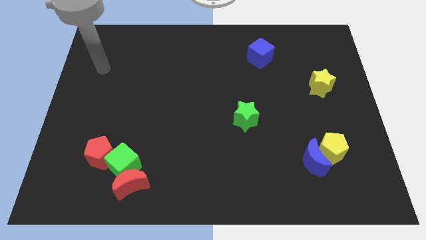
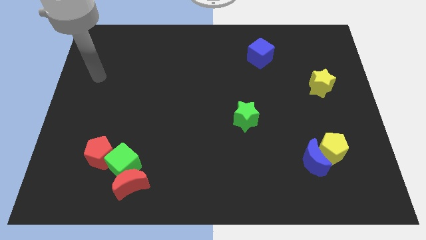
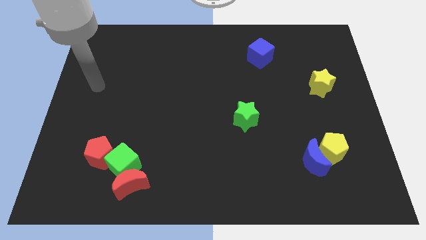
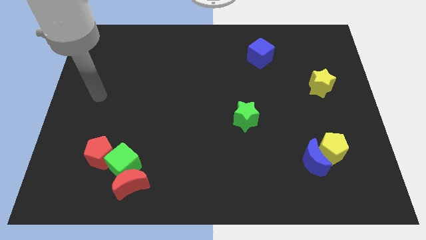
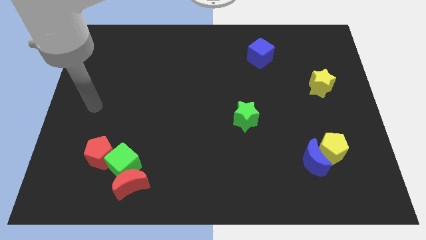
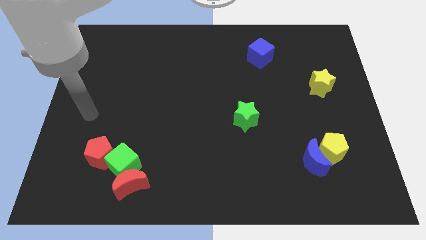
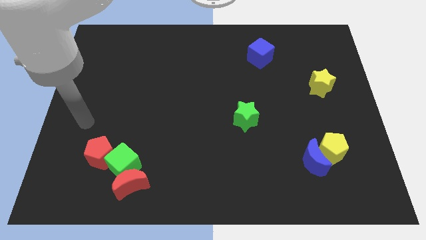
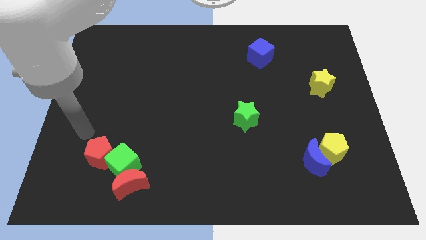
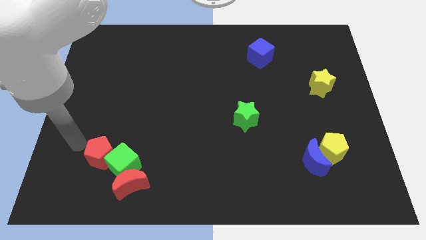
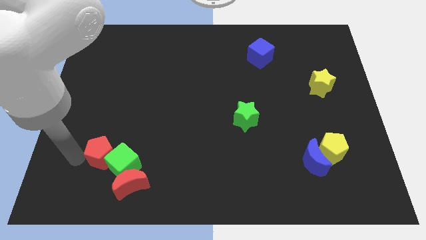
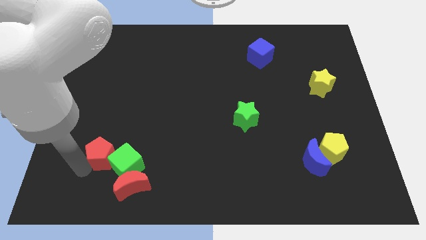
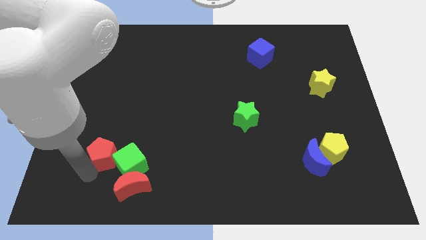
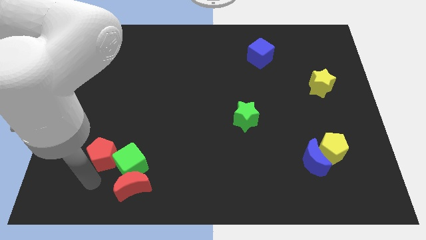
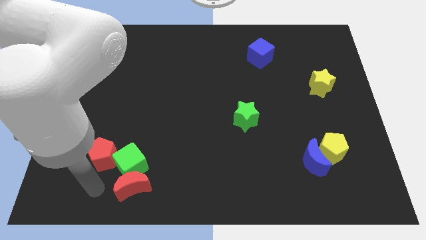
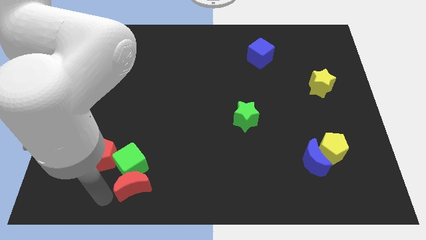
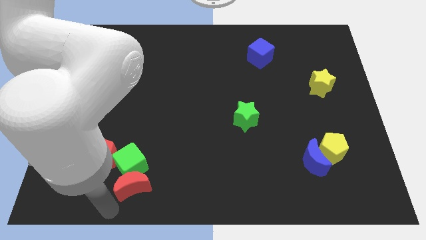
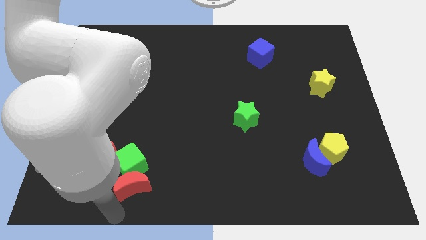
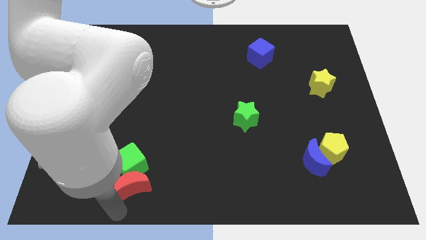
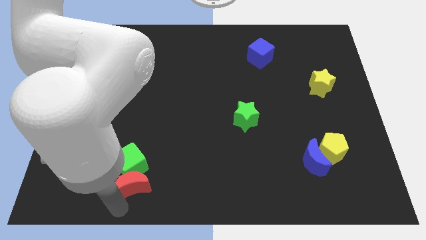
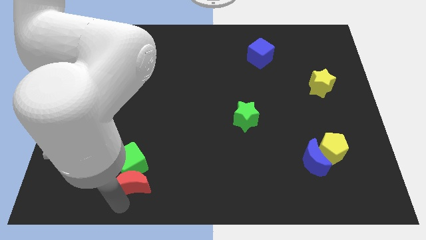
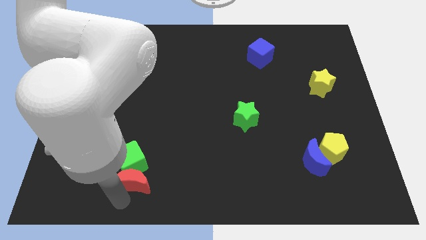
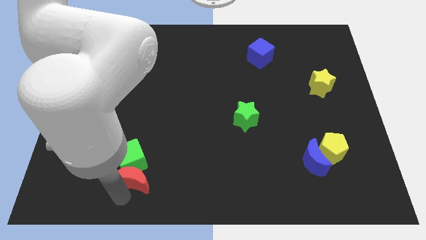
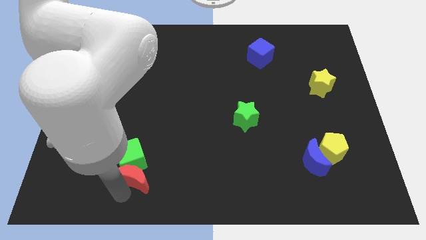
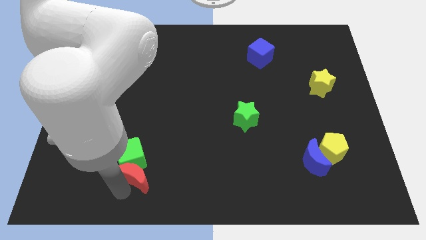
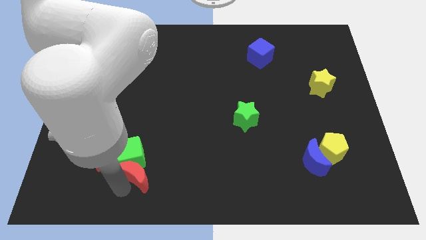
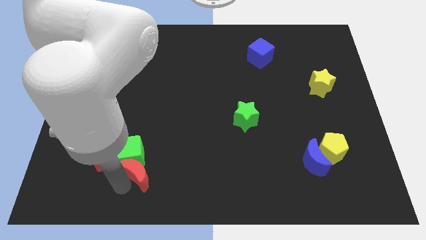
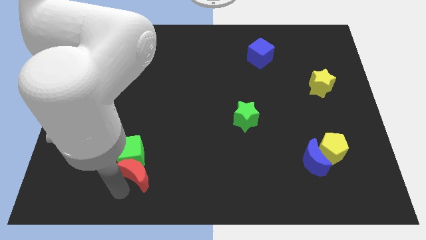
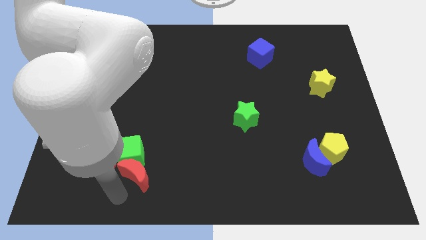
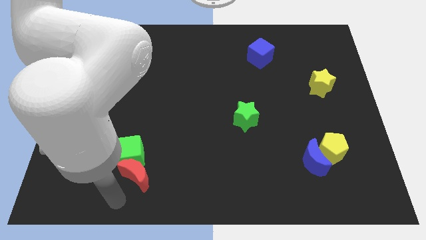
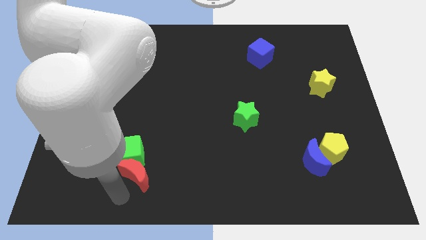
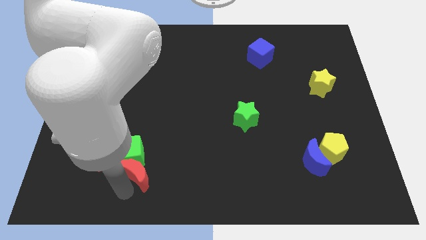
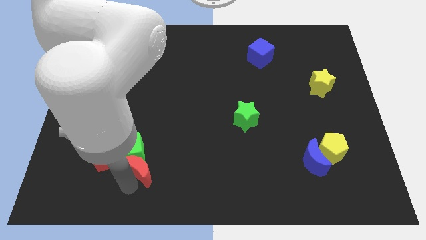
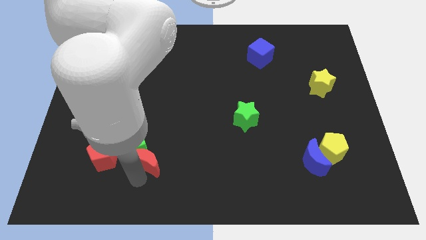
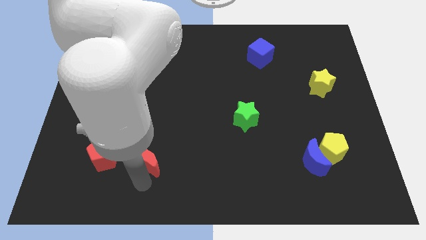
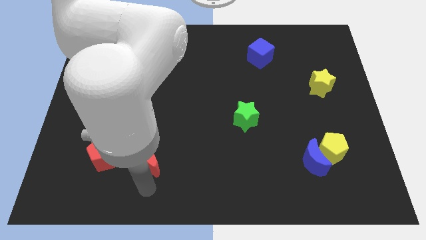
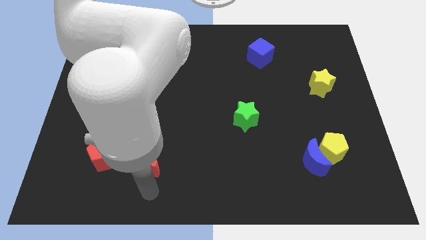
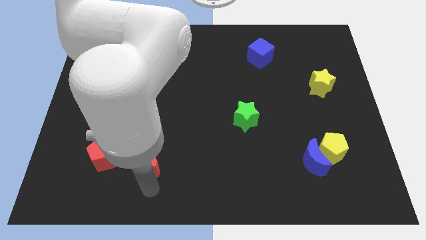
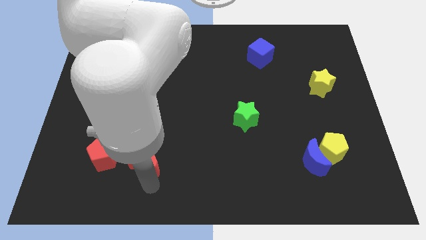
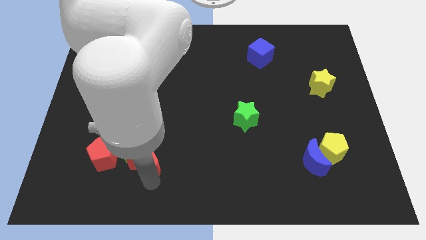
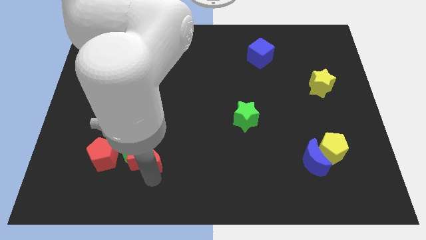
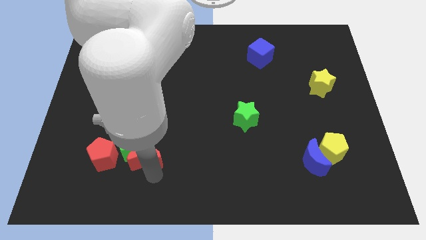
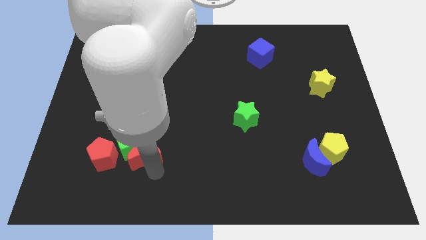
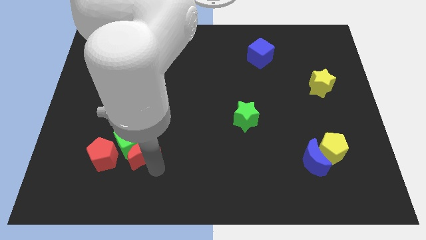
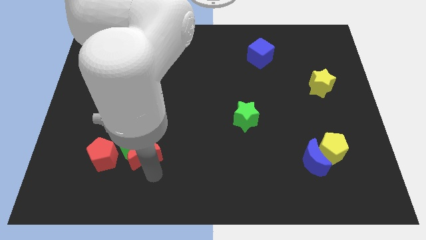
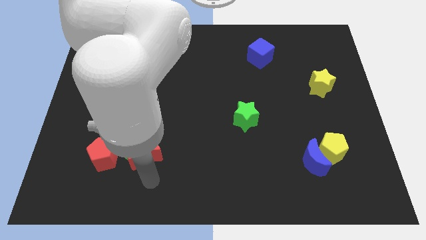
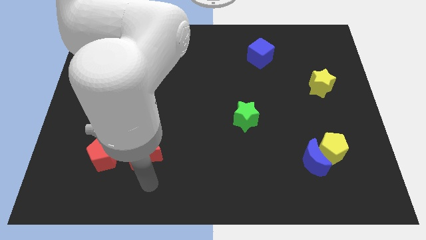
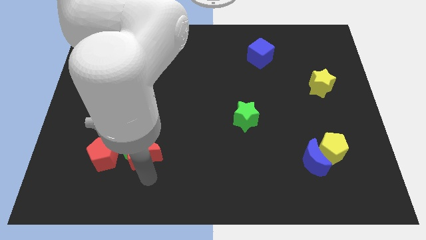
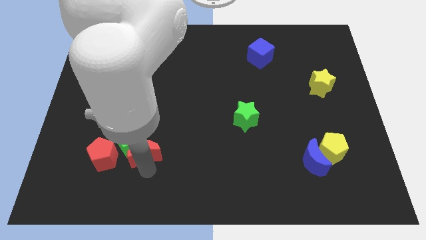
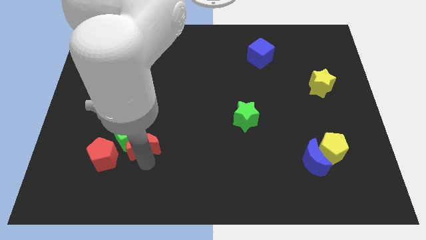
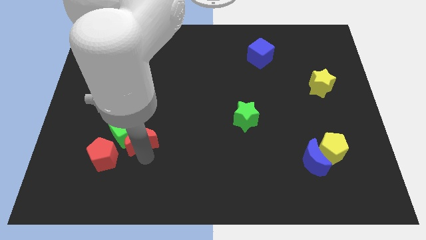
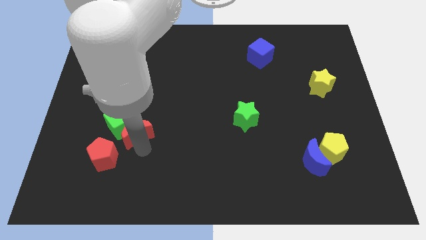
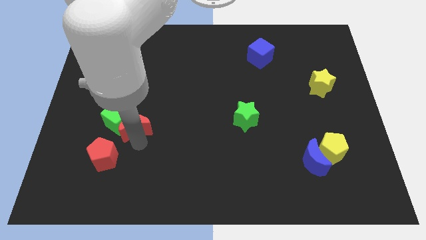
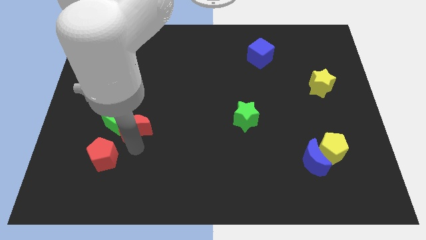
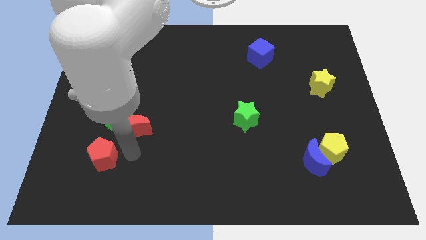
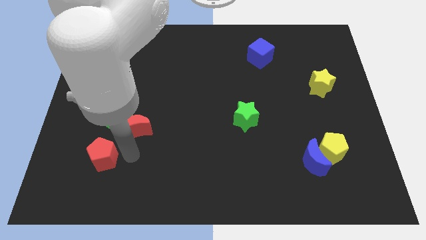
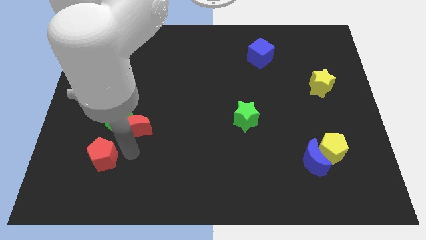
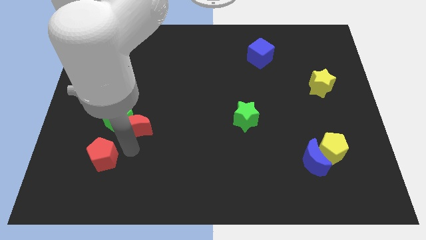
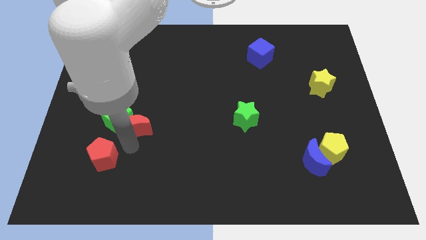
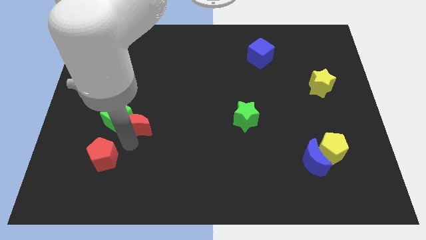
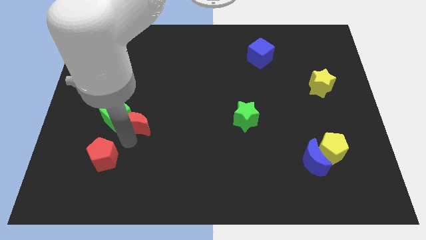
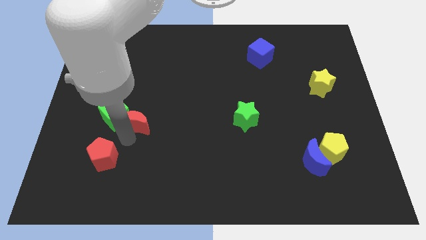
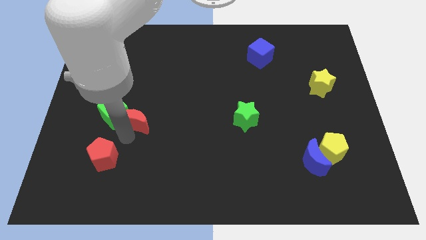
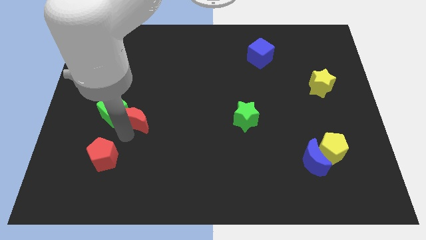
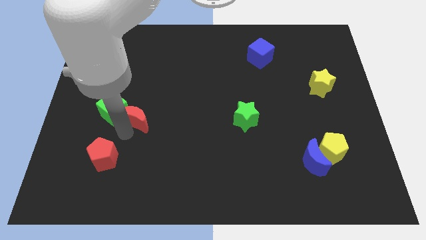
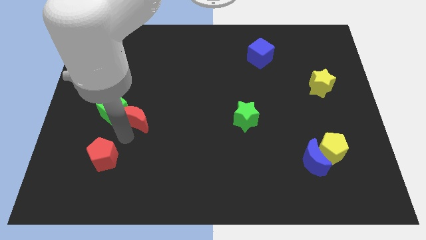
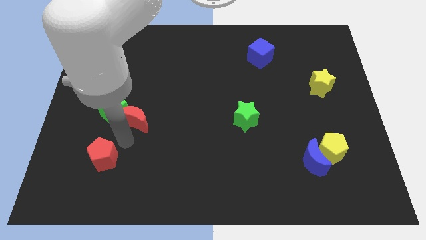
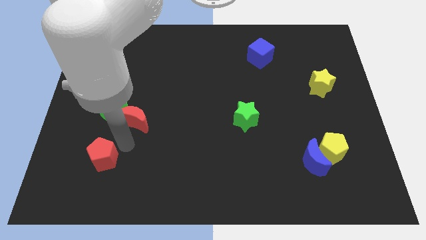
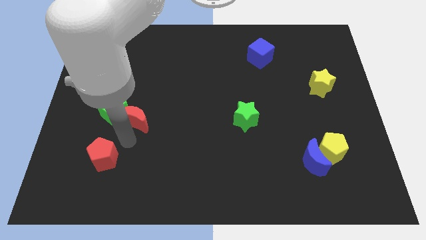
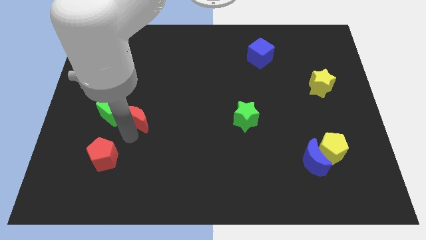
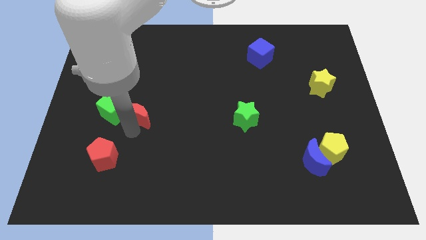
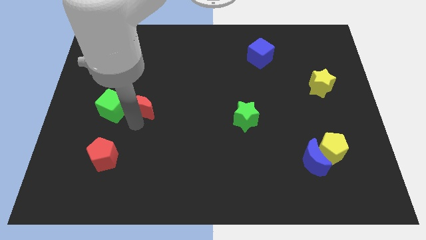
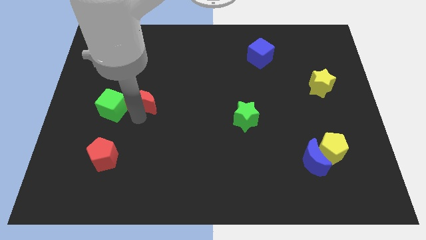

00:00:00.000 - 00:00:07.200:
push the red moon up

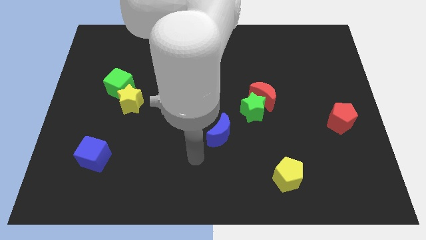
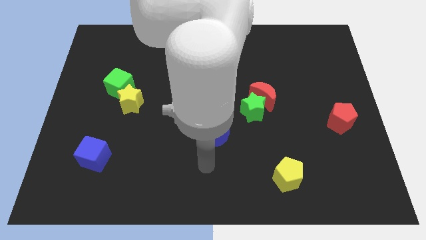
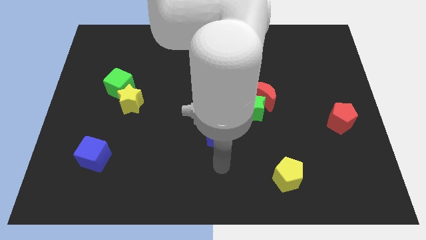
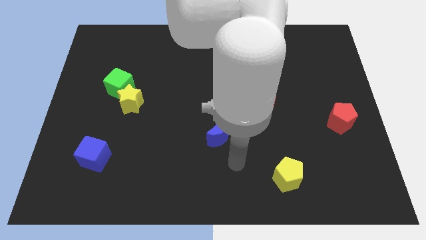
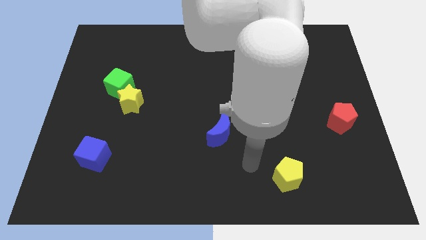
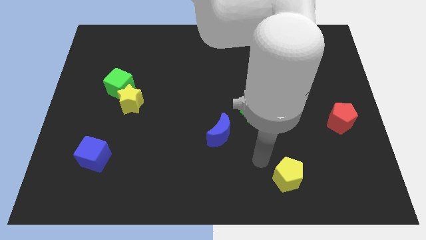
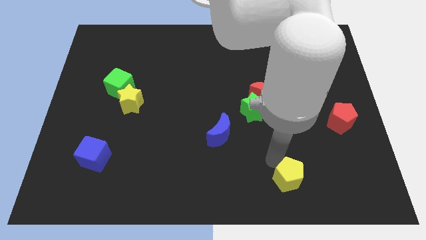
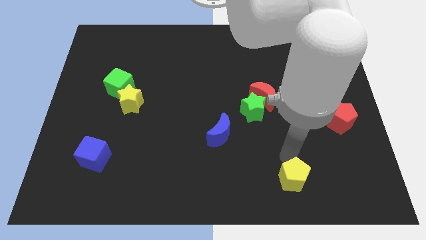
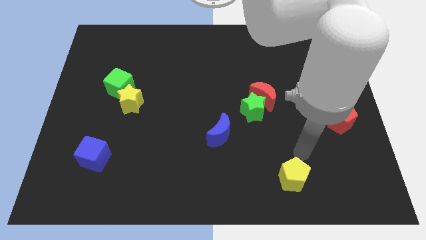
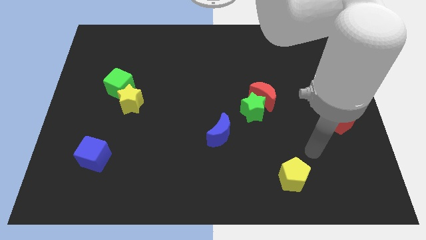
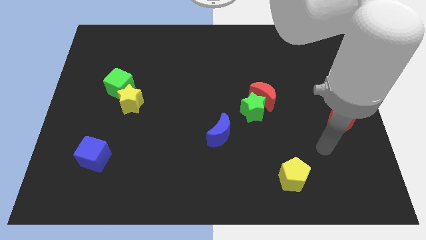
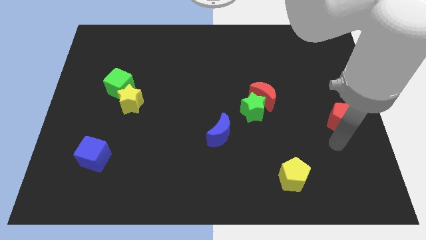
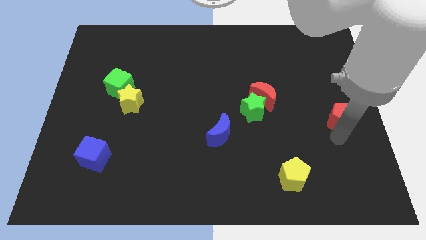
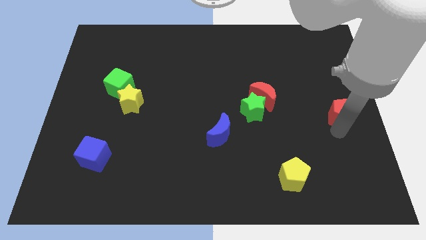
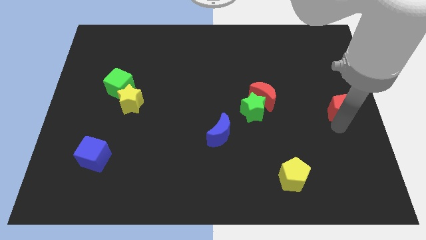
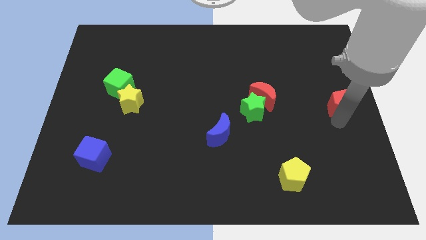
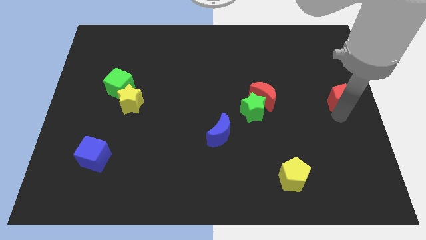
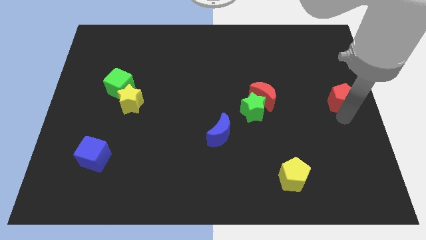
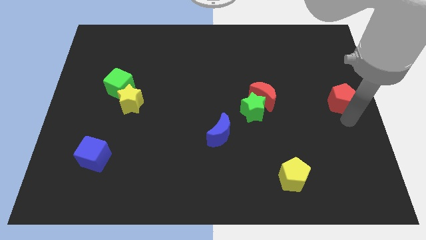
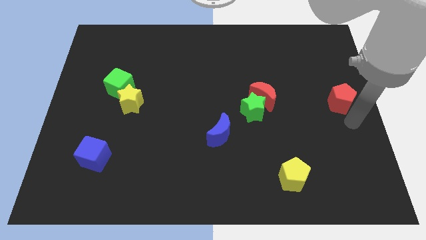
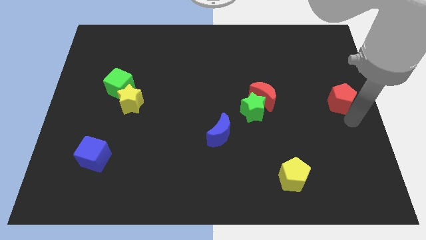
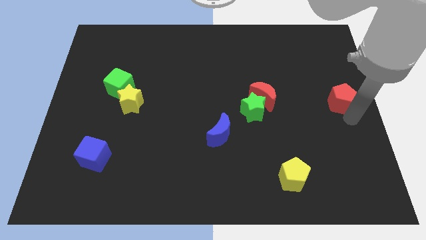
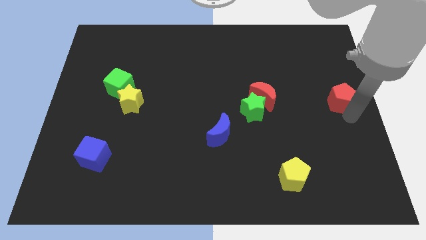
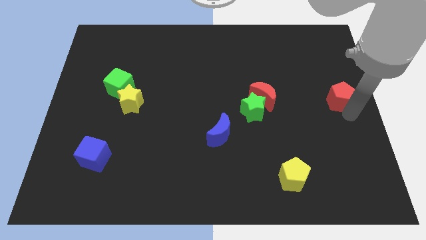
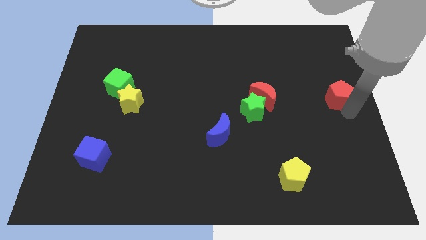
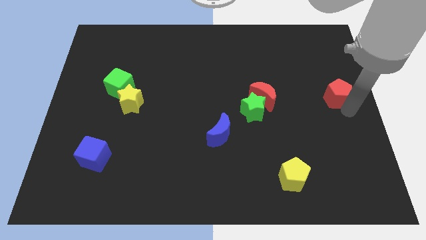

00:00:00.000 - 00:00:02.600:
push the red pentagon up somewhat
